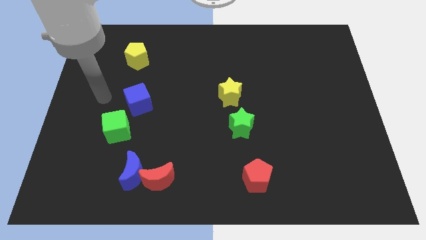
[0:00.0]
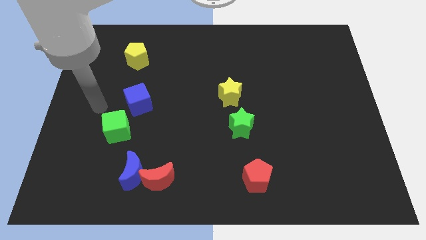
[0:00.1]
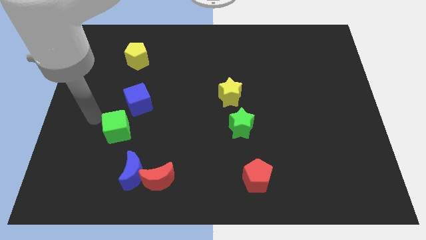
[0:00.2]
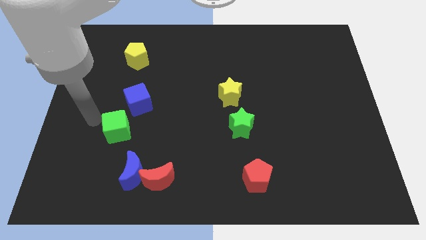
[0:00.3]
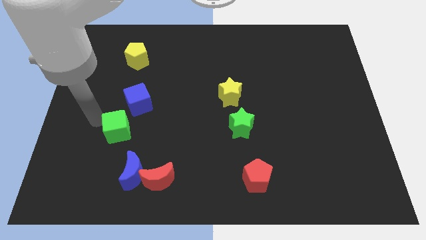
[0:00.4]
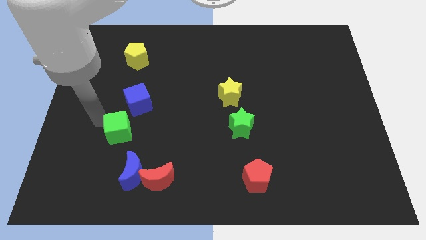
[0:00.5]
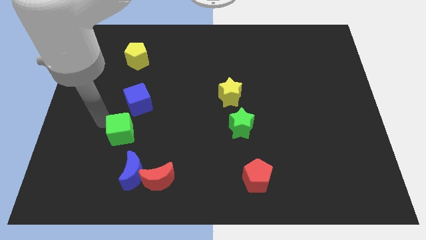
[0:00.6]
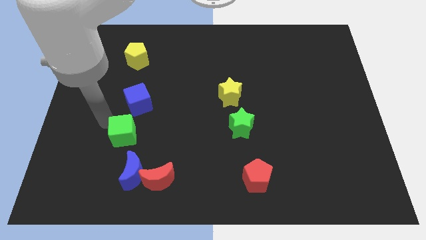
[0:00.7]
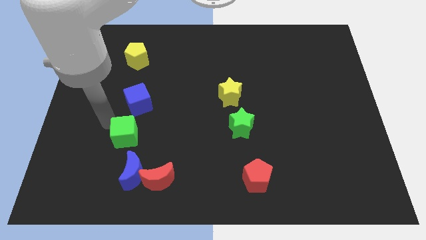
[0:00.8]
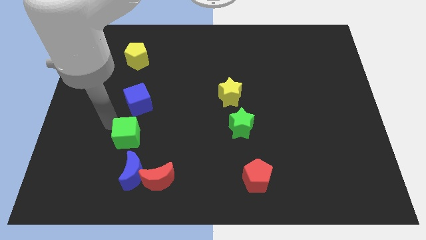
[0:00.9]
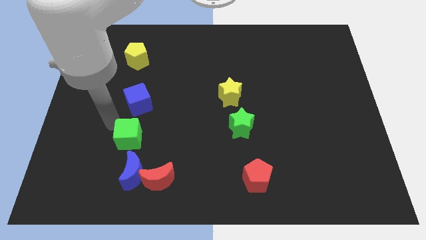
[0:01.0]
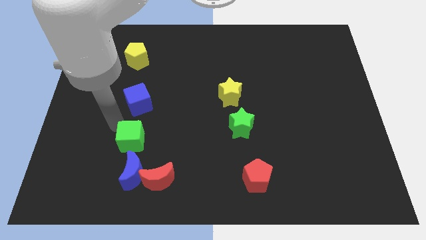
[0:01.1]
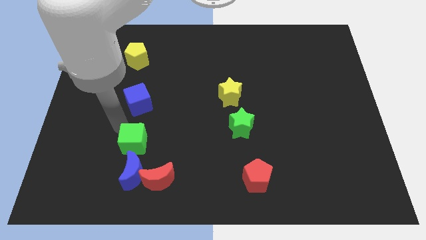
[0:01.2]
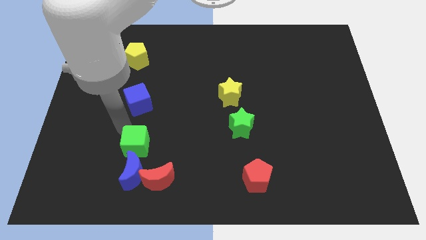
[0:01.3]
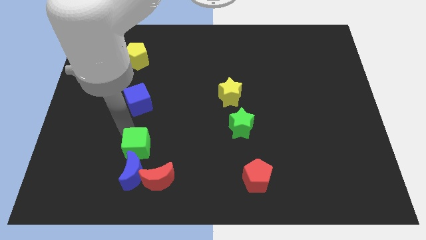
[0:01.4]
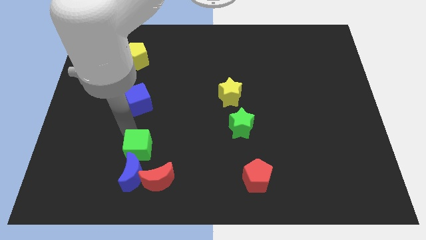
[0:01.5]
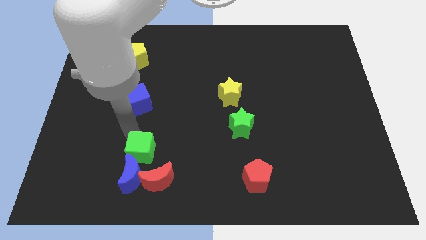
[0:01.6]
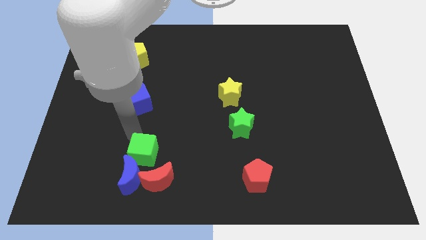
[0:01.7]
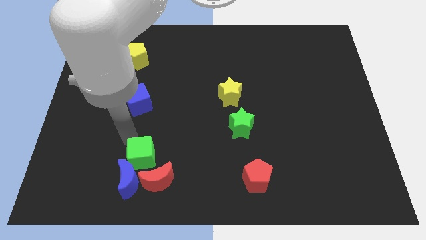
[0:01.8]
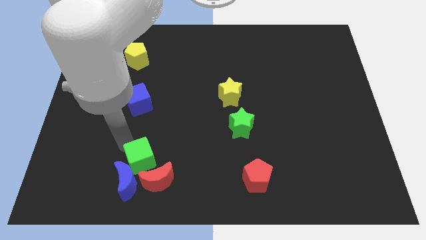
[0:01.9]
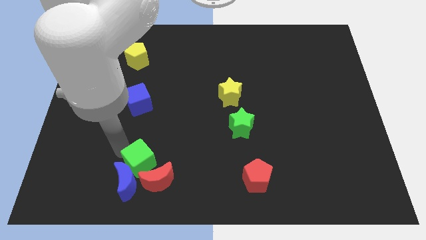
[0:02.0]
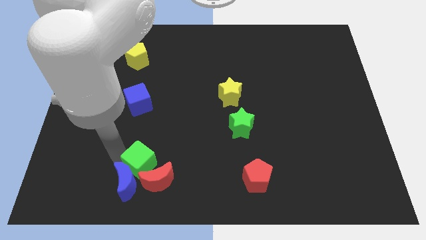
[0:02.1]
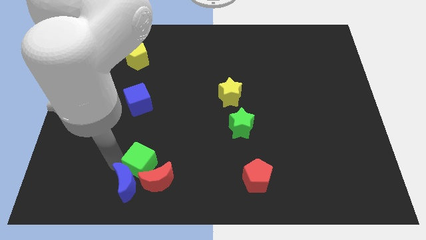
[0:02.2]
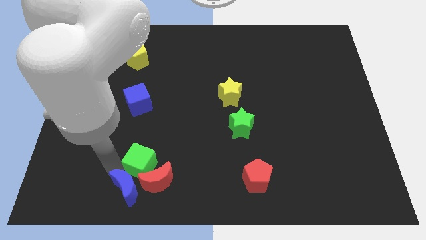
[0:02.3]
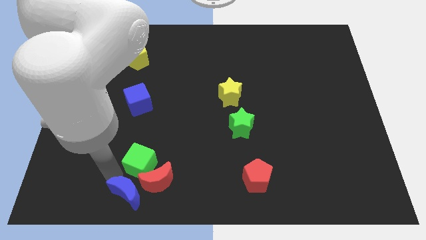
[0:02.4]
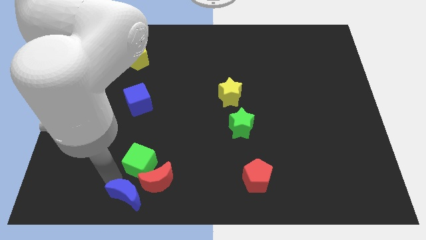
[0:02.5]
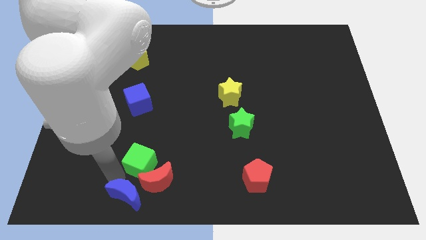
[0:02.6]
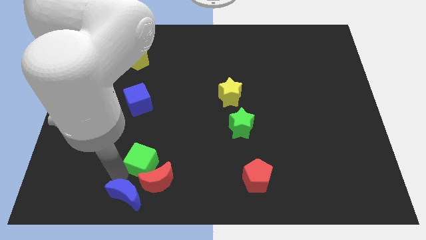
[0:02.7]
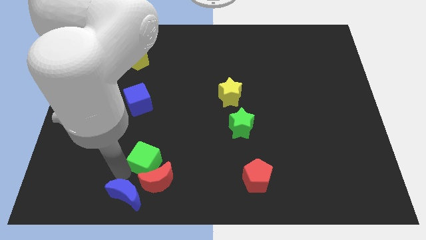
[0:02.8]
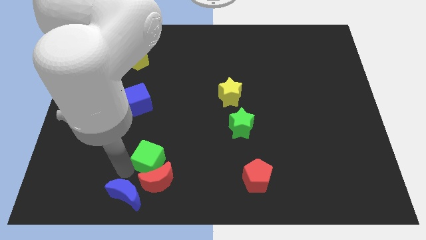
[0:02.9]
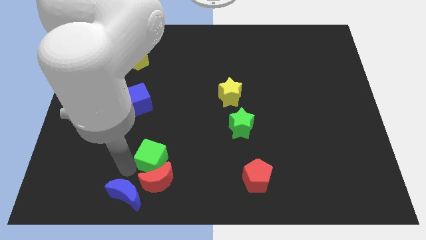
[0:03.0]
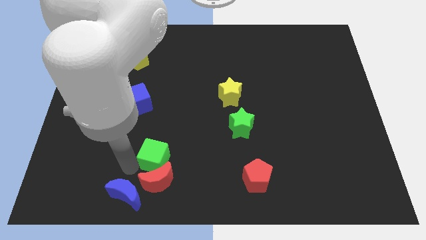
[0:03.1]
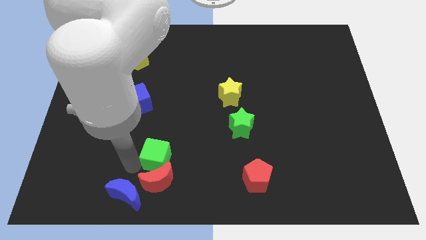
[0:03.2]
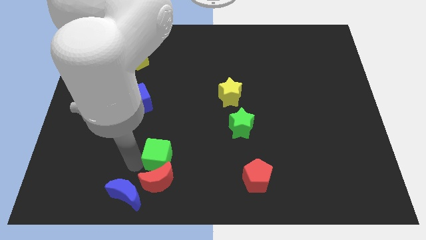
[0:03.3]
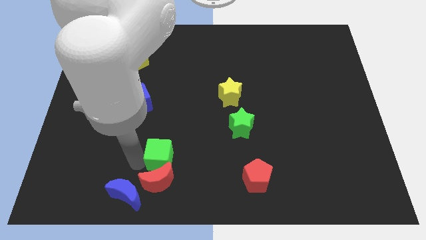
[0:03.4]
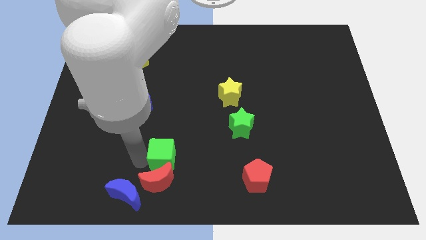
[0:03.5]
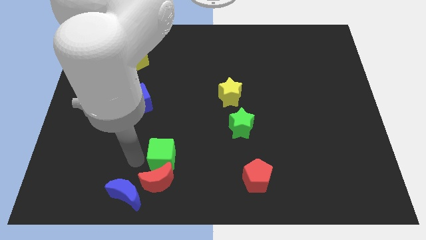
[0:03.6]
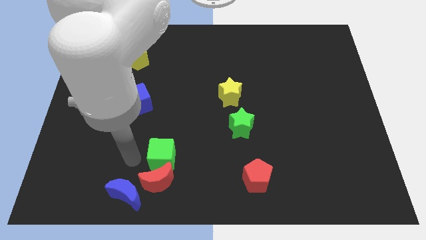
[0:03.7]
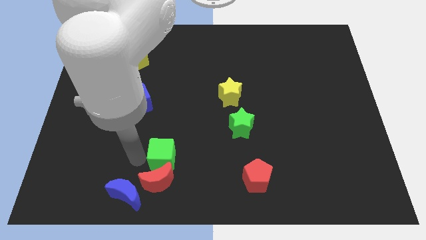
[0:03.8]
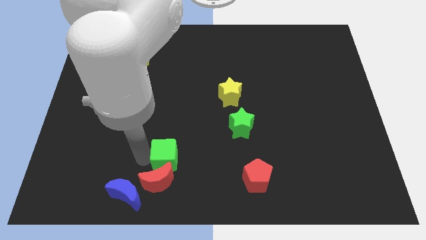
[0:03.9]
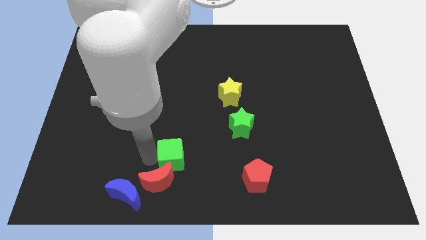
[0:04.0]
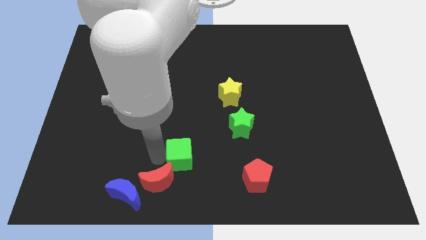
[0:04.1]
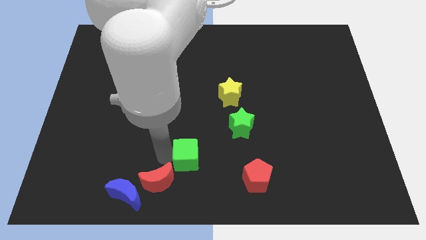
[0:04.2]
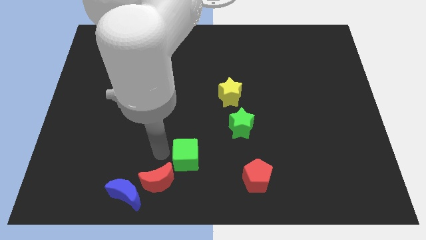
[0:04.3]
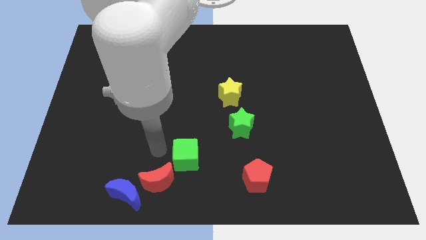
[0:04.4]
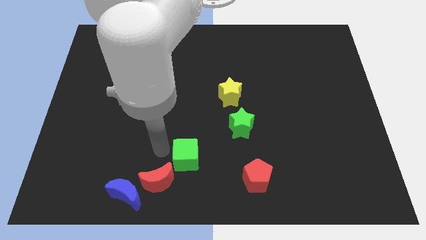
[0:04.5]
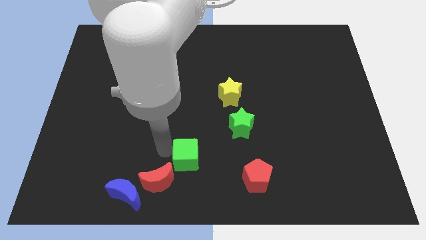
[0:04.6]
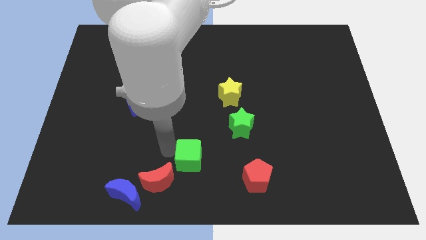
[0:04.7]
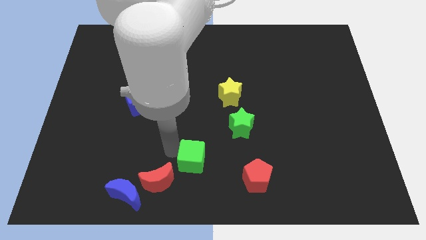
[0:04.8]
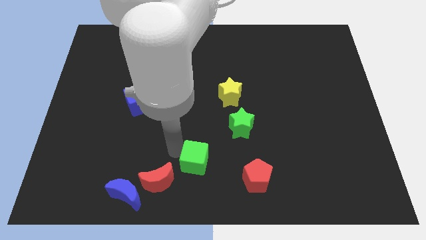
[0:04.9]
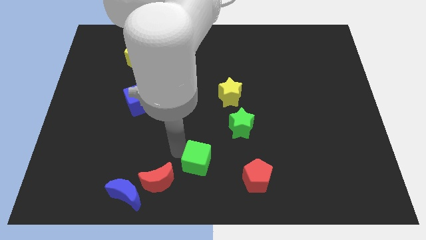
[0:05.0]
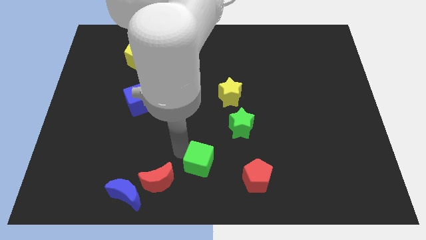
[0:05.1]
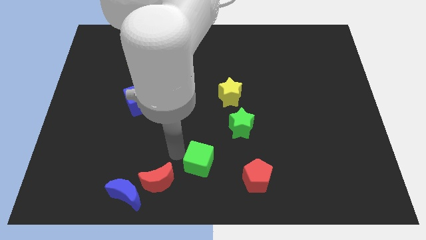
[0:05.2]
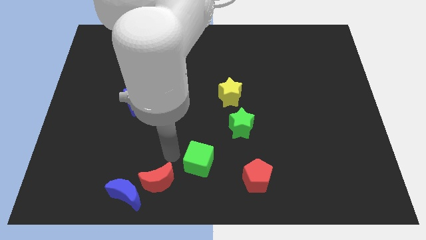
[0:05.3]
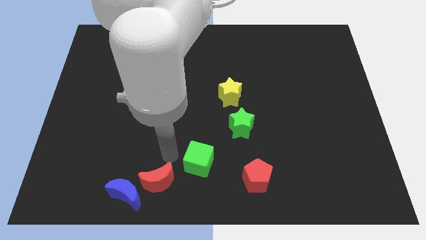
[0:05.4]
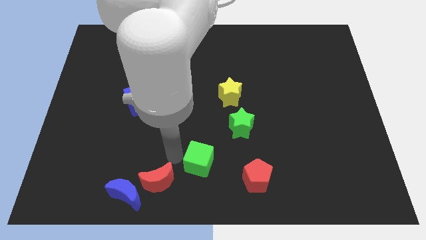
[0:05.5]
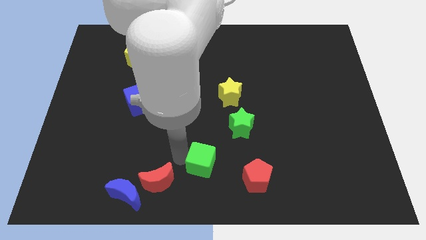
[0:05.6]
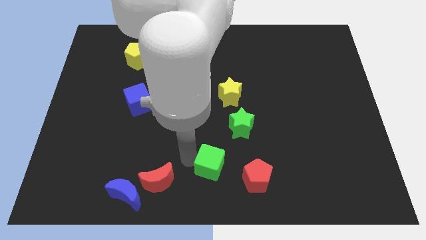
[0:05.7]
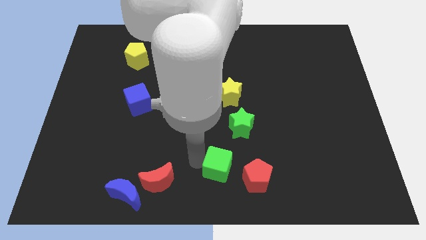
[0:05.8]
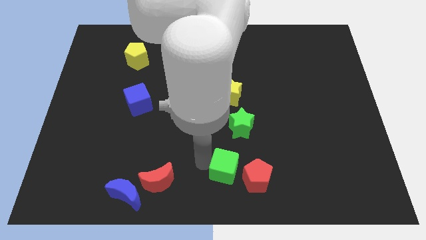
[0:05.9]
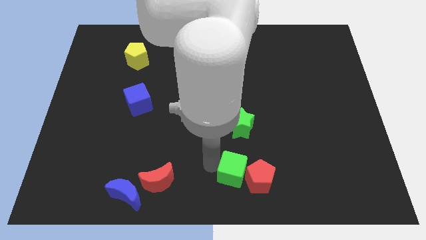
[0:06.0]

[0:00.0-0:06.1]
push the green cube close to the red pentagon

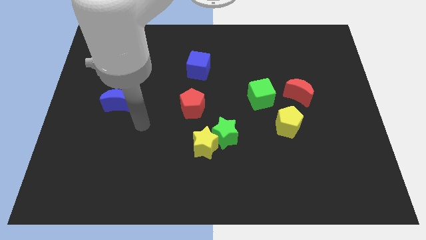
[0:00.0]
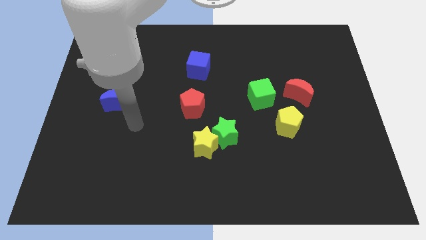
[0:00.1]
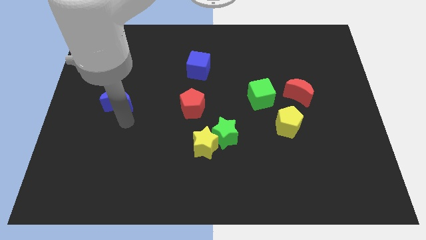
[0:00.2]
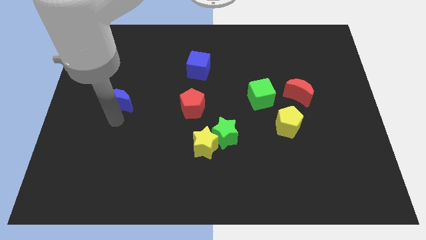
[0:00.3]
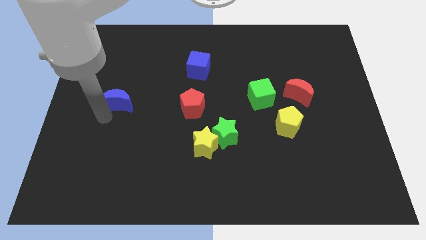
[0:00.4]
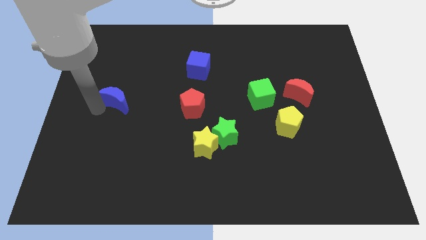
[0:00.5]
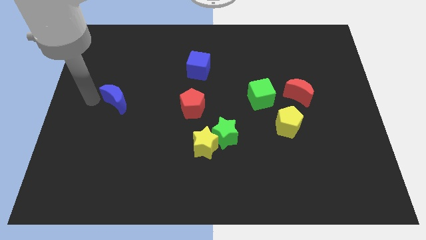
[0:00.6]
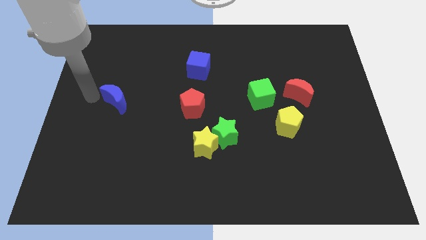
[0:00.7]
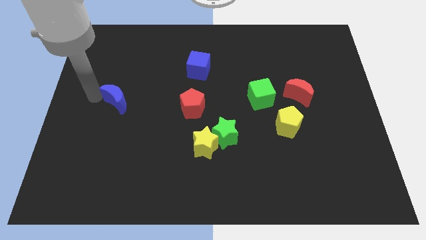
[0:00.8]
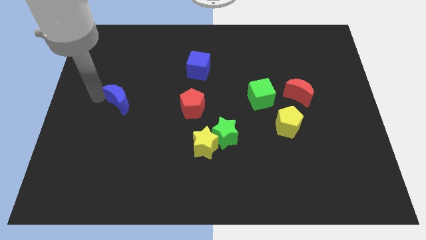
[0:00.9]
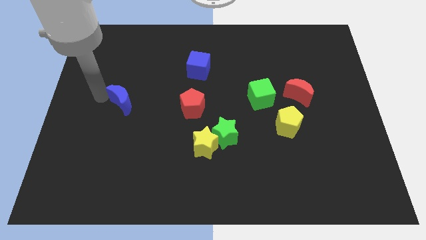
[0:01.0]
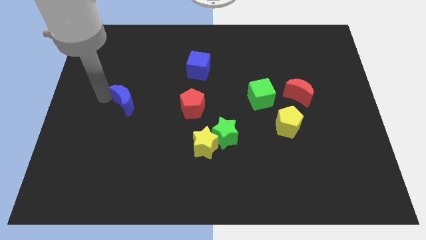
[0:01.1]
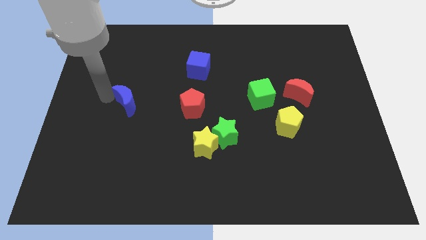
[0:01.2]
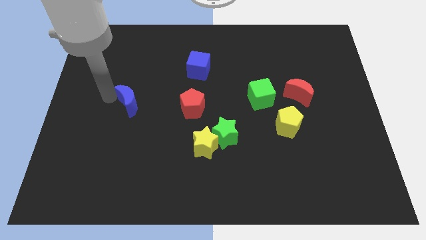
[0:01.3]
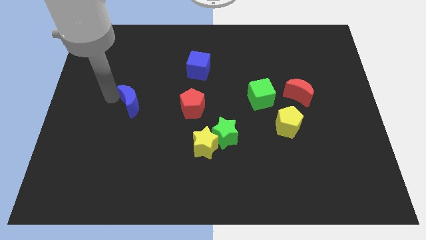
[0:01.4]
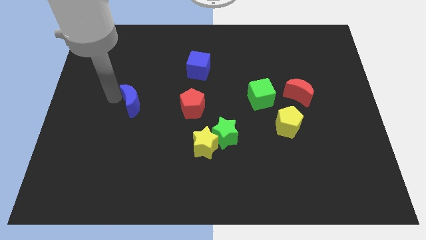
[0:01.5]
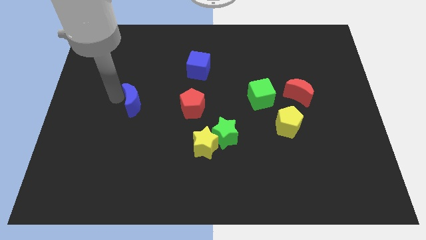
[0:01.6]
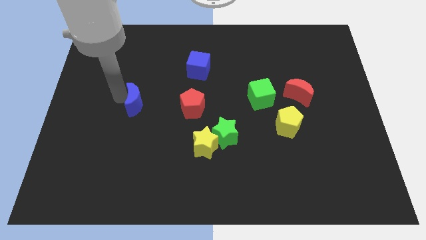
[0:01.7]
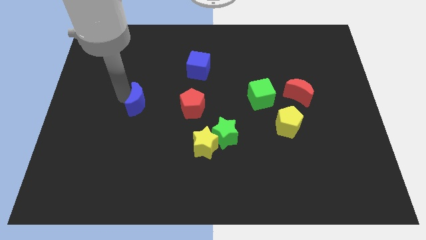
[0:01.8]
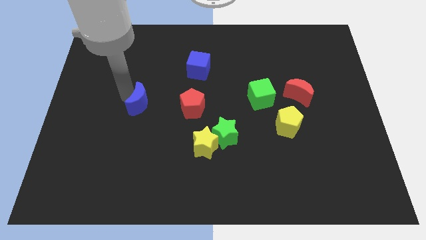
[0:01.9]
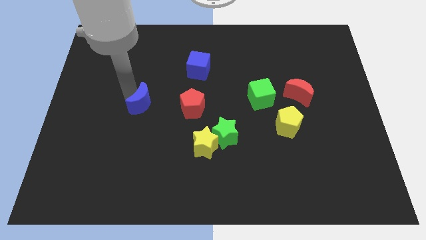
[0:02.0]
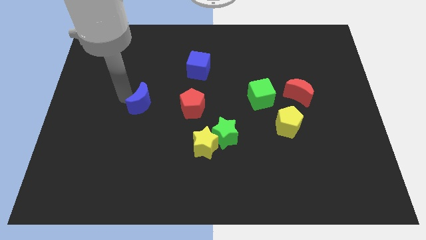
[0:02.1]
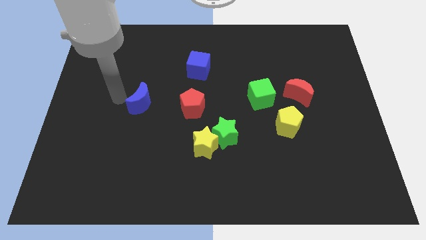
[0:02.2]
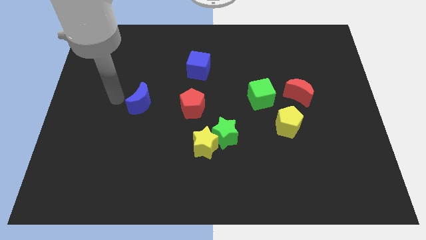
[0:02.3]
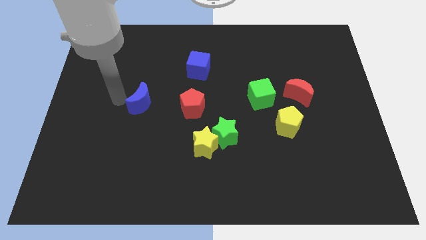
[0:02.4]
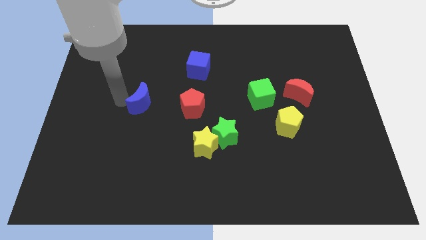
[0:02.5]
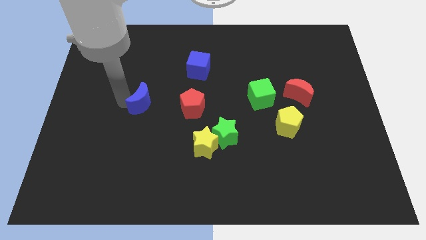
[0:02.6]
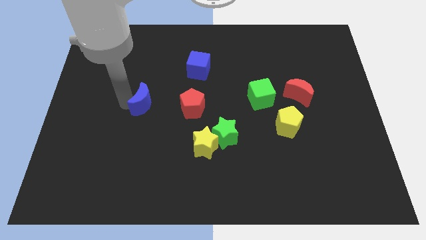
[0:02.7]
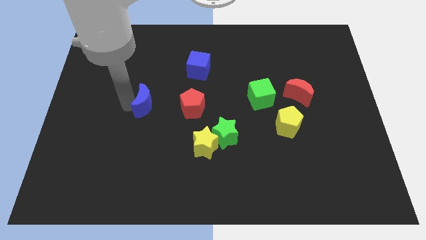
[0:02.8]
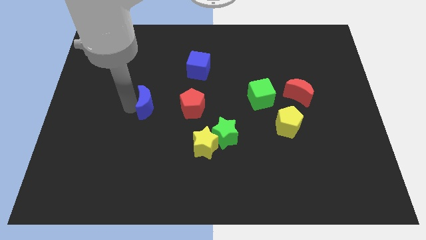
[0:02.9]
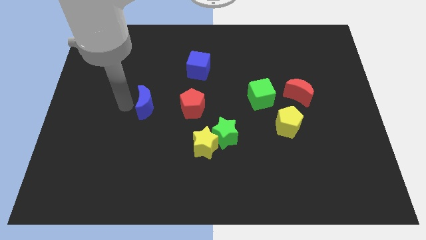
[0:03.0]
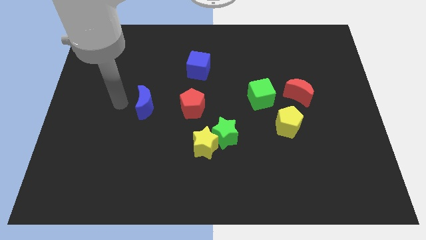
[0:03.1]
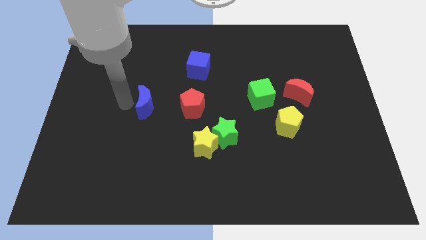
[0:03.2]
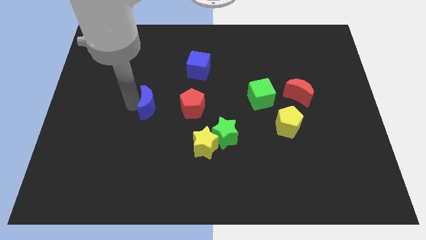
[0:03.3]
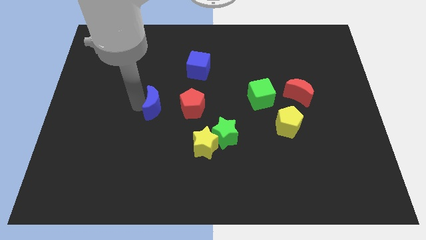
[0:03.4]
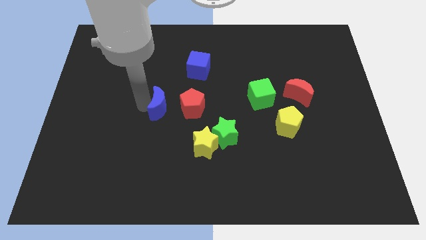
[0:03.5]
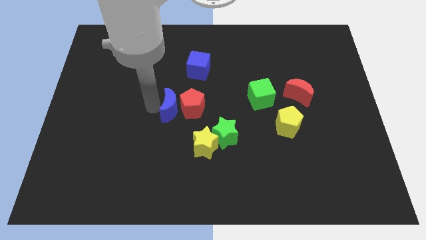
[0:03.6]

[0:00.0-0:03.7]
push the blue moon to the red pentagon
